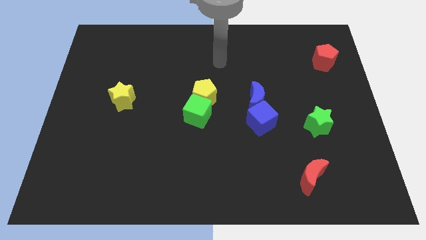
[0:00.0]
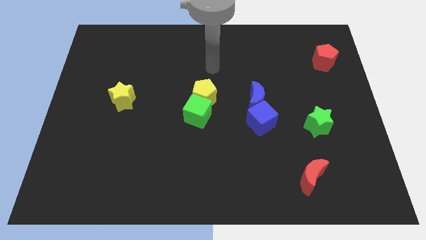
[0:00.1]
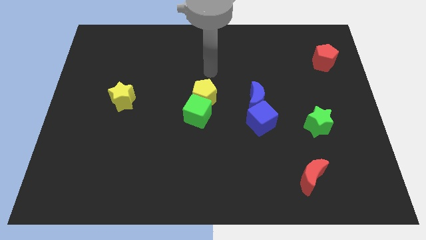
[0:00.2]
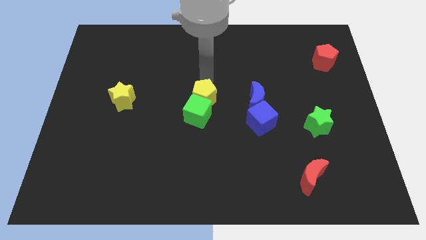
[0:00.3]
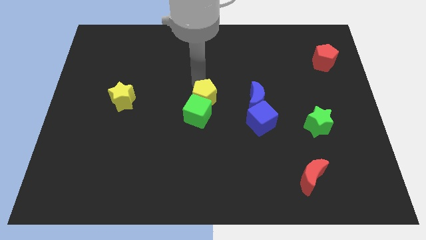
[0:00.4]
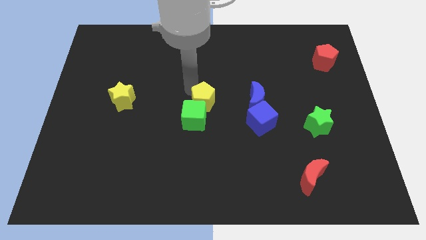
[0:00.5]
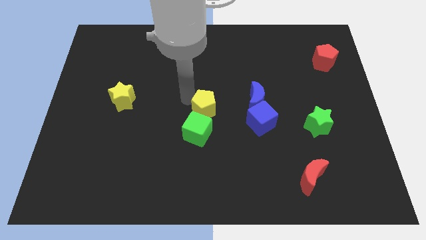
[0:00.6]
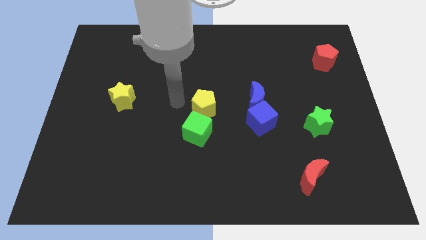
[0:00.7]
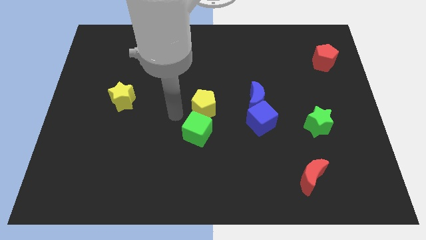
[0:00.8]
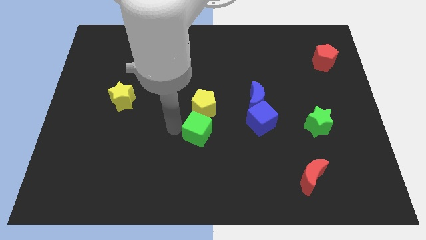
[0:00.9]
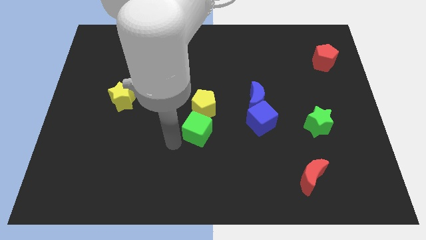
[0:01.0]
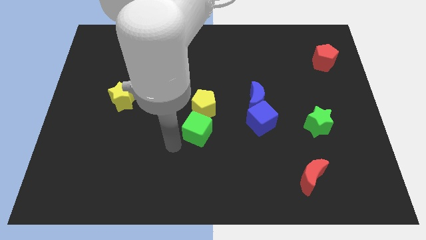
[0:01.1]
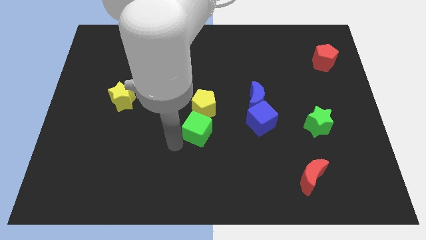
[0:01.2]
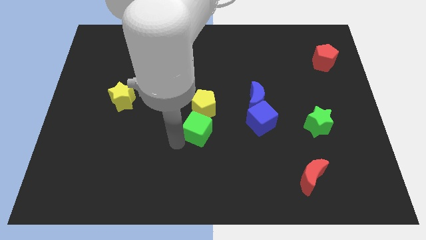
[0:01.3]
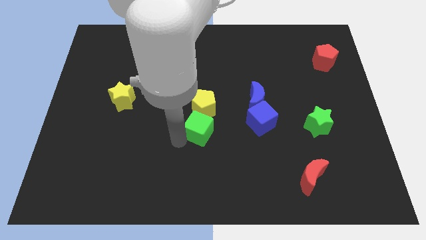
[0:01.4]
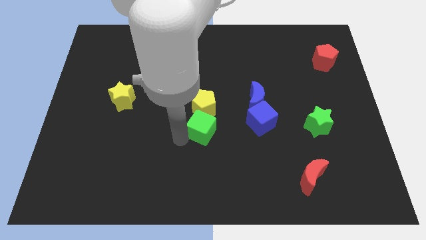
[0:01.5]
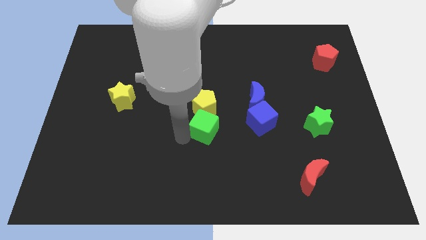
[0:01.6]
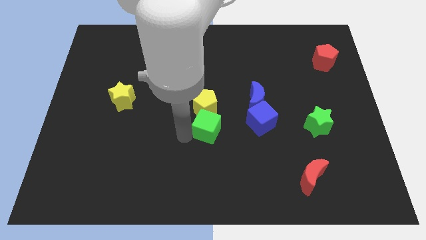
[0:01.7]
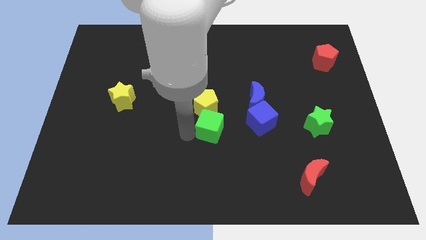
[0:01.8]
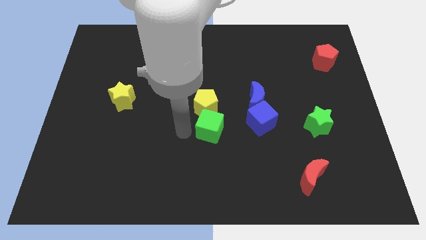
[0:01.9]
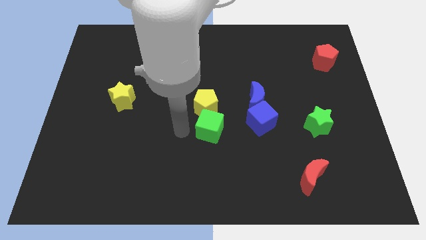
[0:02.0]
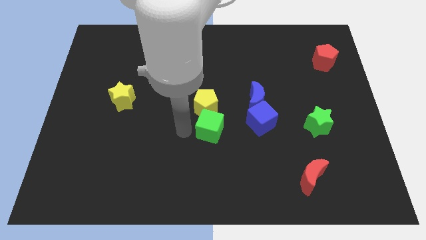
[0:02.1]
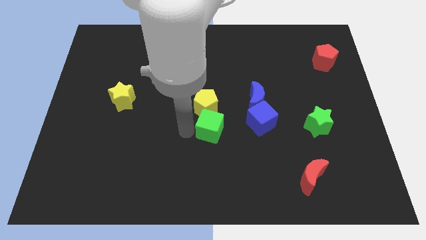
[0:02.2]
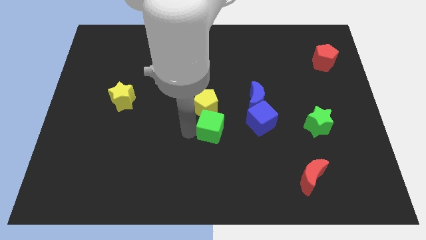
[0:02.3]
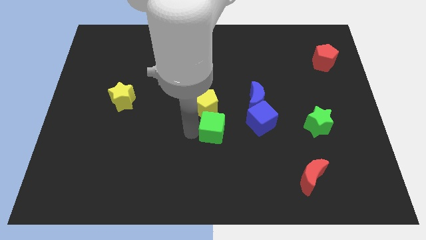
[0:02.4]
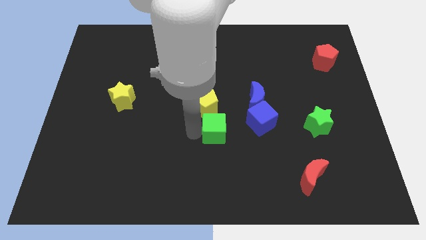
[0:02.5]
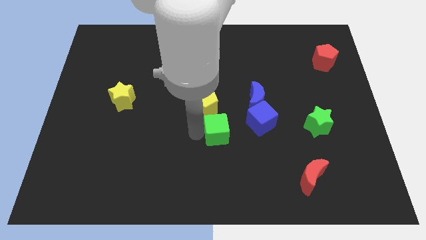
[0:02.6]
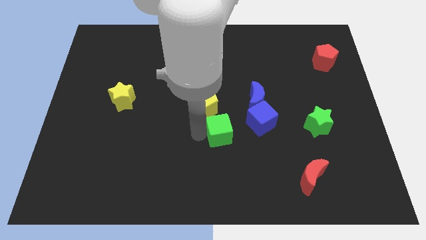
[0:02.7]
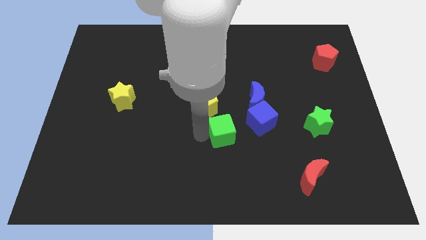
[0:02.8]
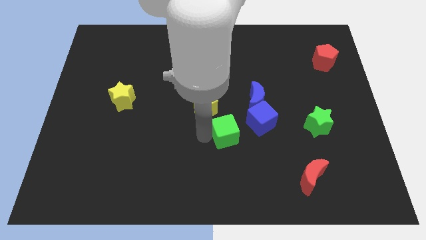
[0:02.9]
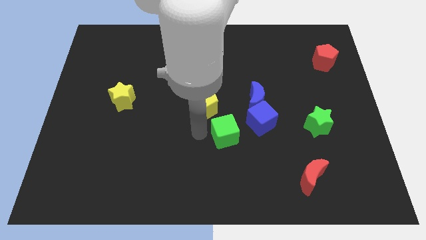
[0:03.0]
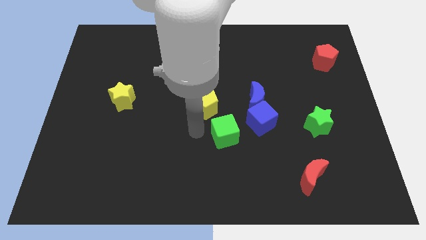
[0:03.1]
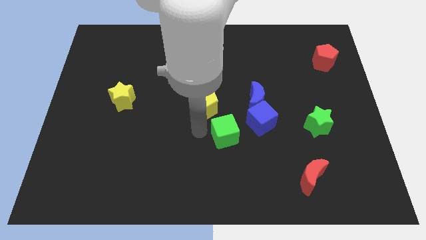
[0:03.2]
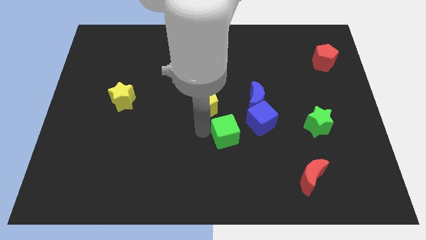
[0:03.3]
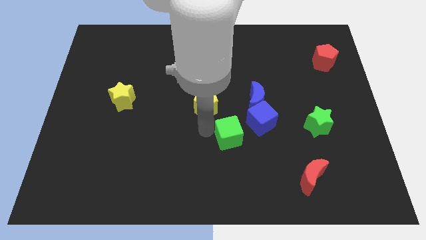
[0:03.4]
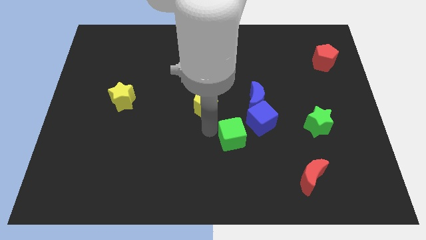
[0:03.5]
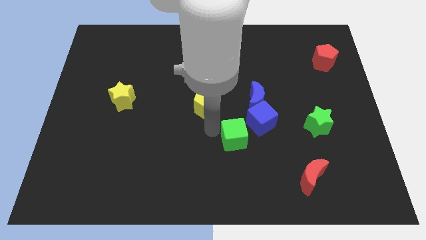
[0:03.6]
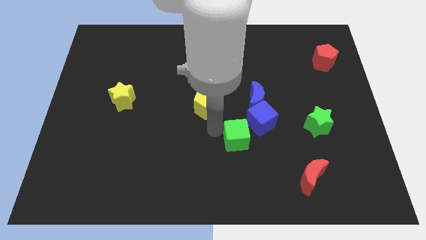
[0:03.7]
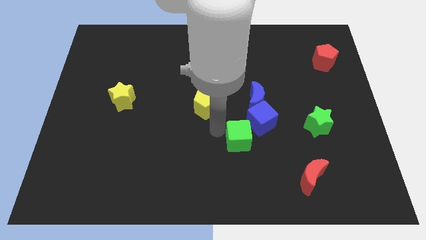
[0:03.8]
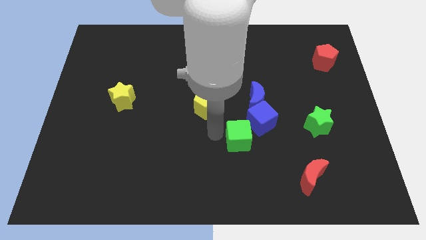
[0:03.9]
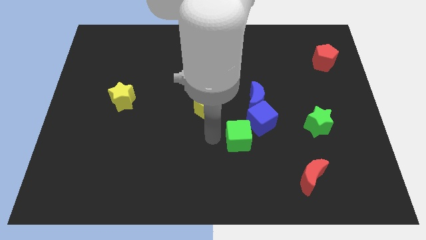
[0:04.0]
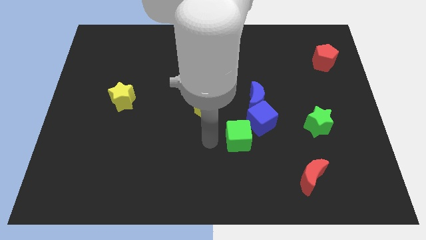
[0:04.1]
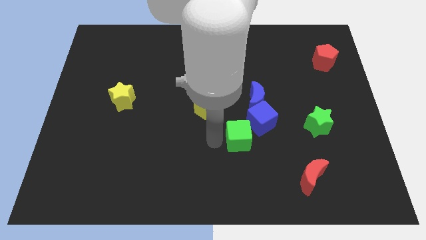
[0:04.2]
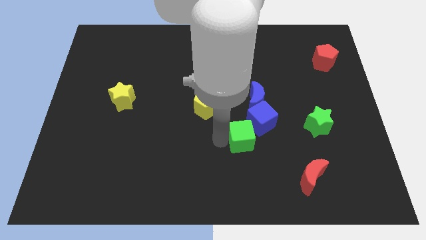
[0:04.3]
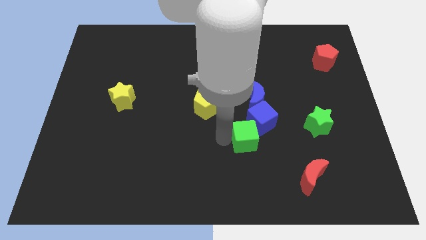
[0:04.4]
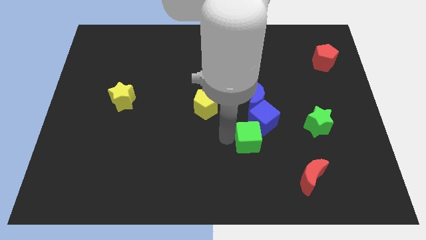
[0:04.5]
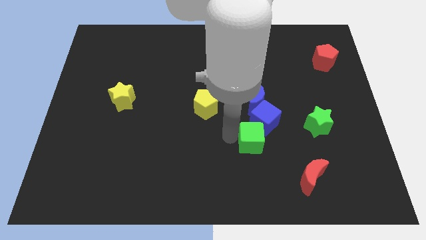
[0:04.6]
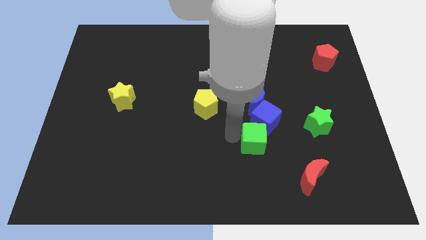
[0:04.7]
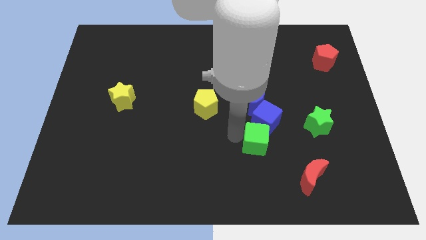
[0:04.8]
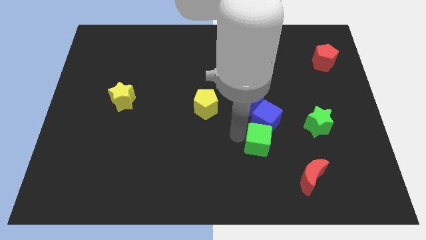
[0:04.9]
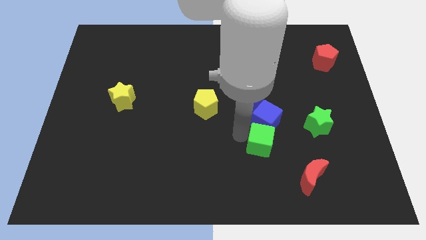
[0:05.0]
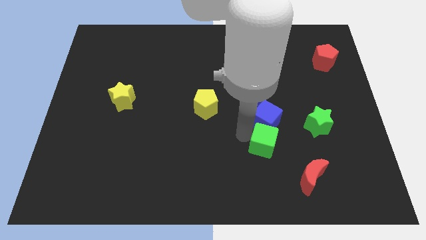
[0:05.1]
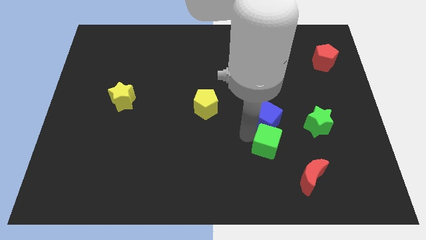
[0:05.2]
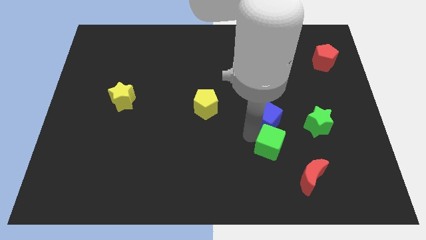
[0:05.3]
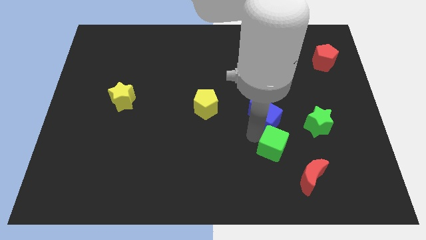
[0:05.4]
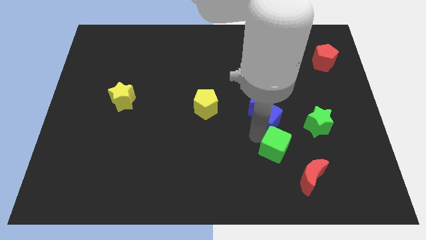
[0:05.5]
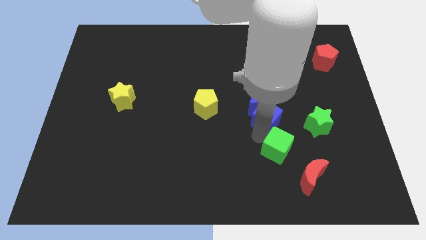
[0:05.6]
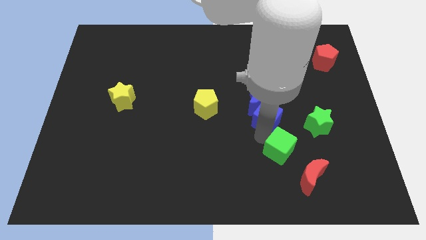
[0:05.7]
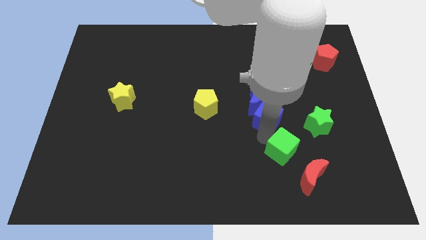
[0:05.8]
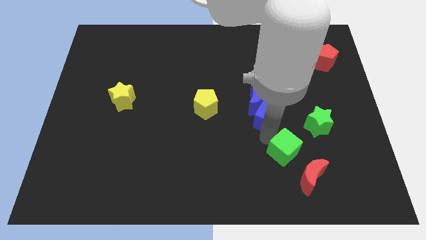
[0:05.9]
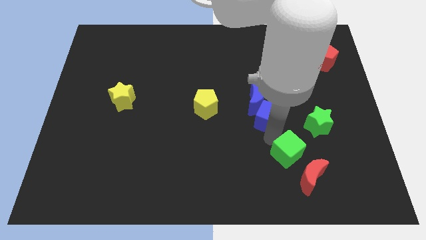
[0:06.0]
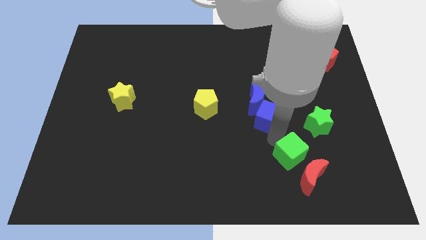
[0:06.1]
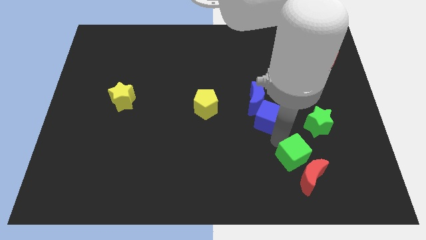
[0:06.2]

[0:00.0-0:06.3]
push the green cube to the red moon

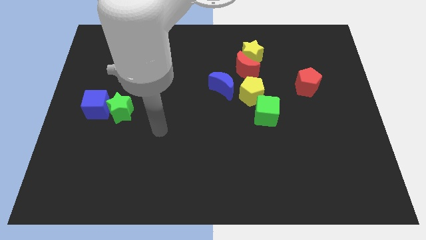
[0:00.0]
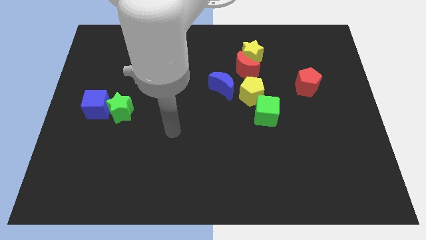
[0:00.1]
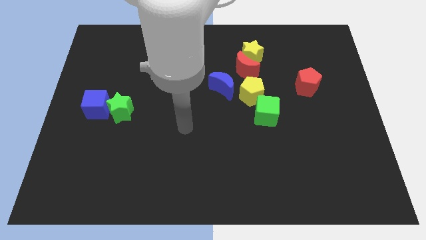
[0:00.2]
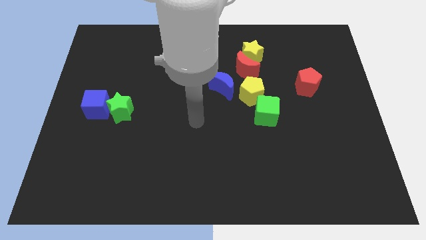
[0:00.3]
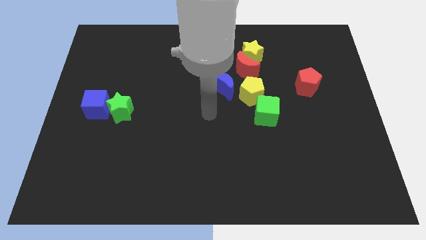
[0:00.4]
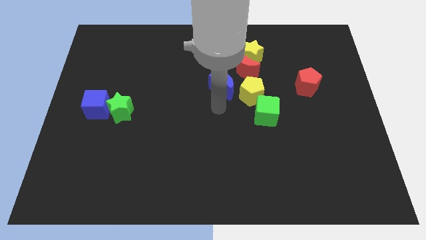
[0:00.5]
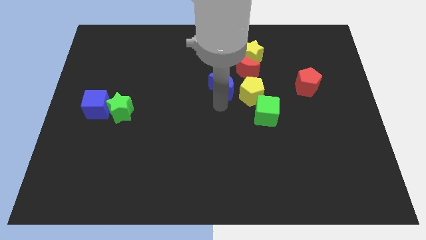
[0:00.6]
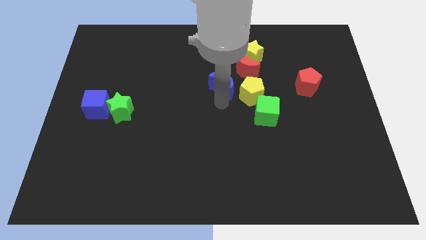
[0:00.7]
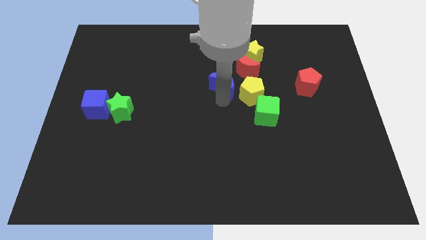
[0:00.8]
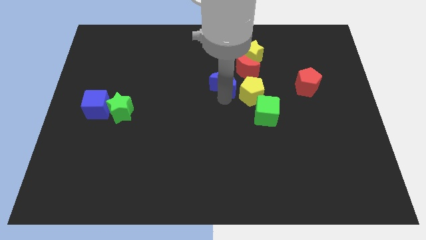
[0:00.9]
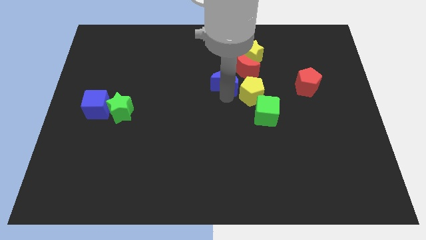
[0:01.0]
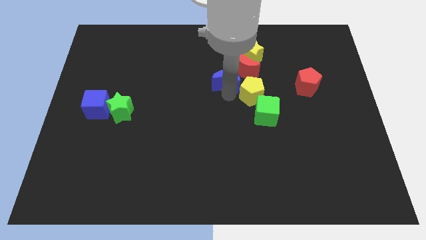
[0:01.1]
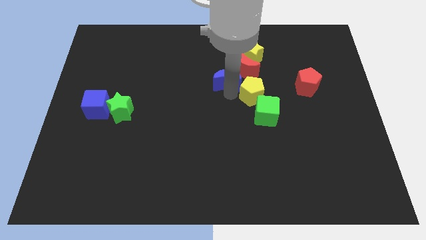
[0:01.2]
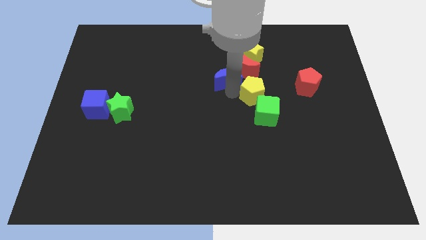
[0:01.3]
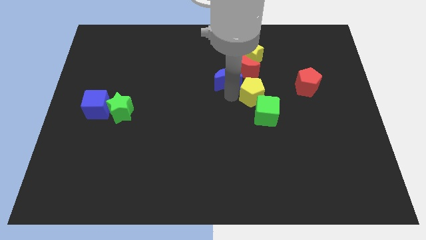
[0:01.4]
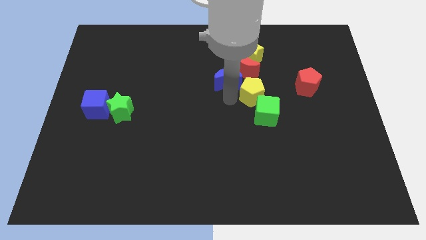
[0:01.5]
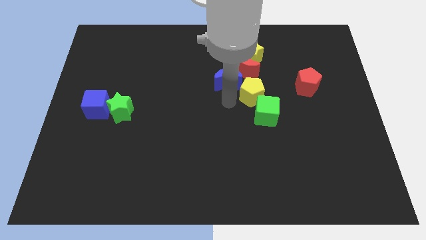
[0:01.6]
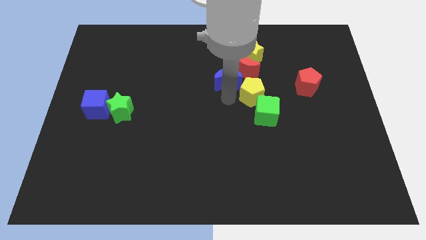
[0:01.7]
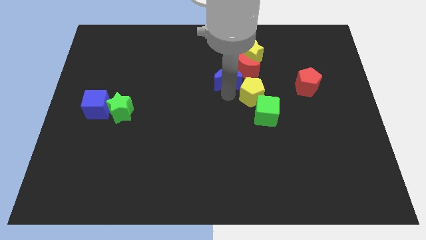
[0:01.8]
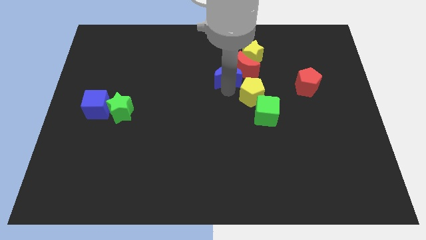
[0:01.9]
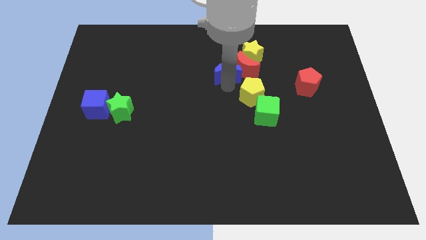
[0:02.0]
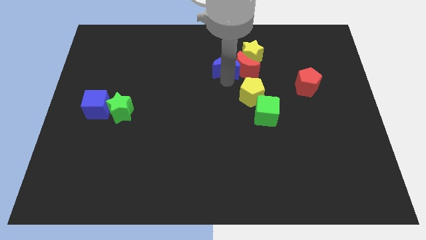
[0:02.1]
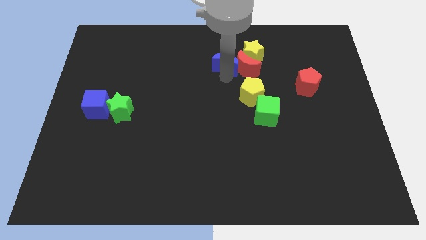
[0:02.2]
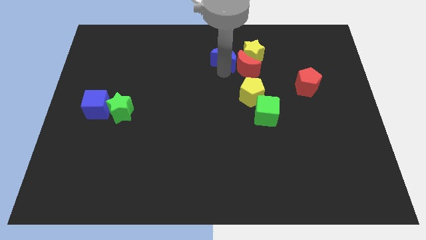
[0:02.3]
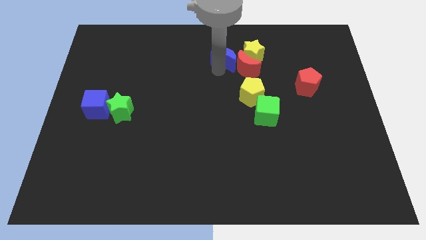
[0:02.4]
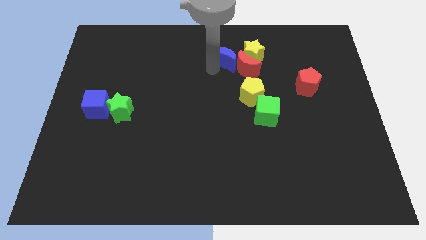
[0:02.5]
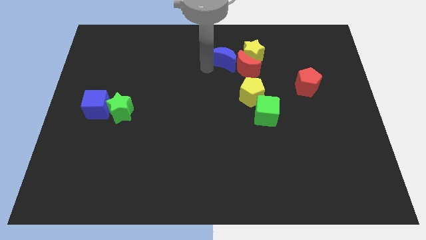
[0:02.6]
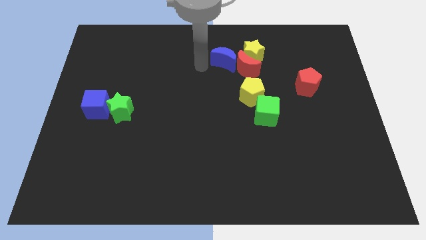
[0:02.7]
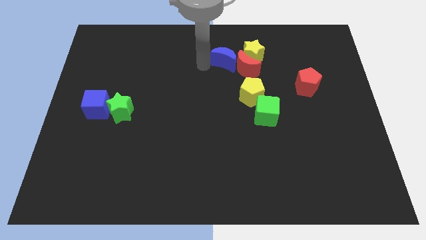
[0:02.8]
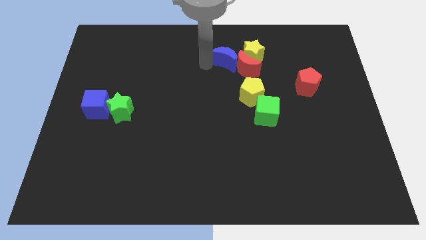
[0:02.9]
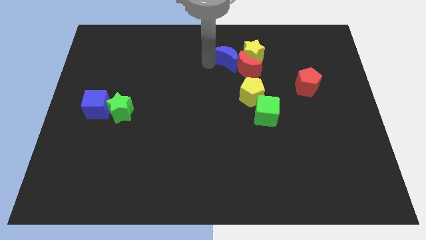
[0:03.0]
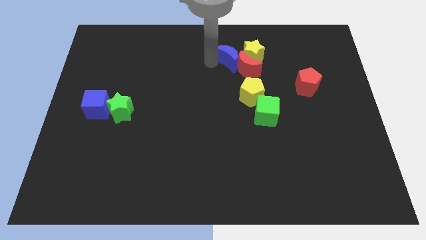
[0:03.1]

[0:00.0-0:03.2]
slide the blue moon to the yellow star
